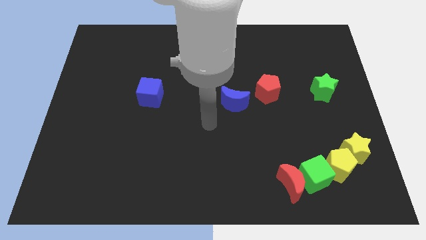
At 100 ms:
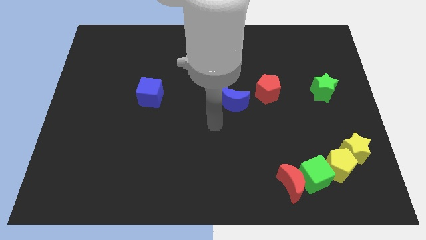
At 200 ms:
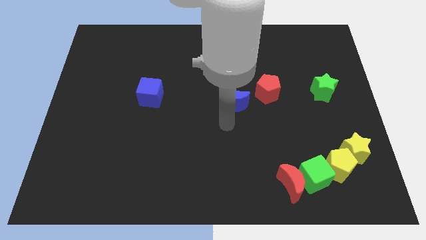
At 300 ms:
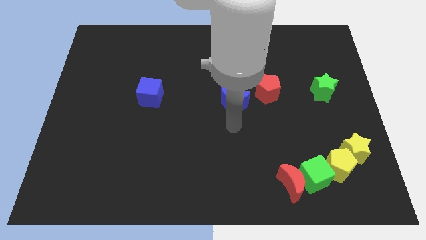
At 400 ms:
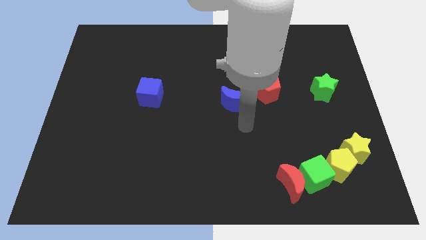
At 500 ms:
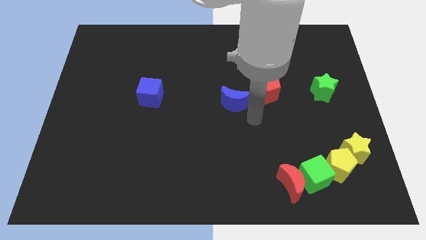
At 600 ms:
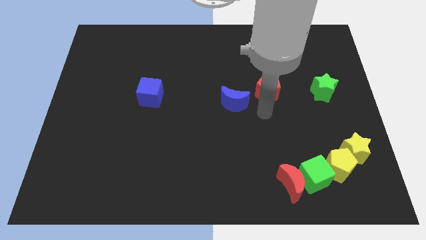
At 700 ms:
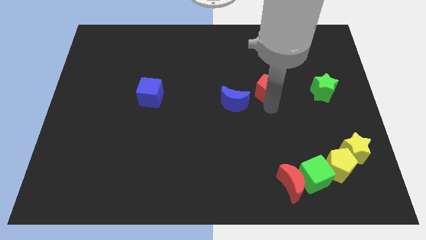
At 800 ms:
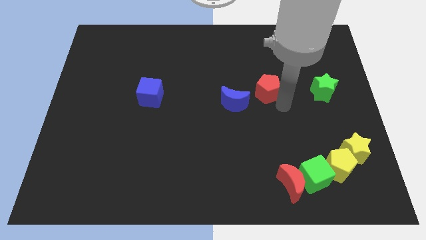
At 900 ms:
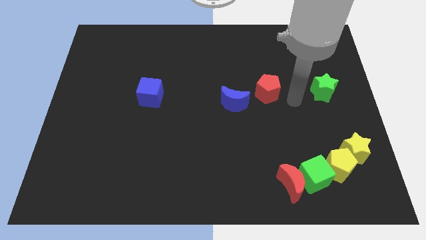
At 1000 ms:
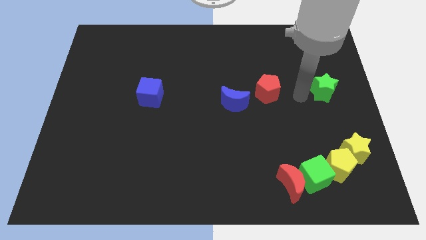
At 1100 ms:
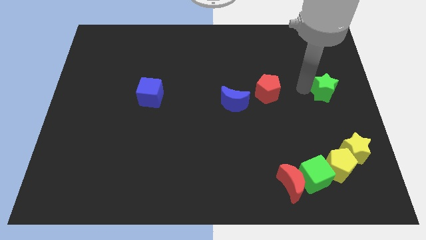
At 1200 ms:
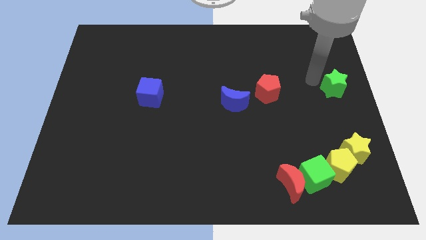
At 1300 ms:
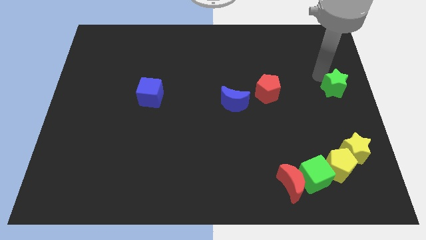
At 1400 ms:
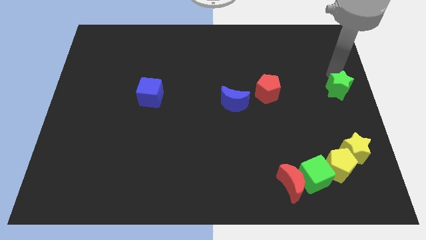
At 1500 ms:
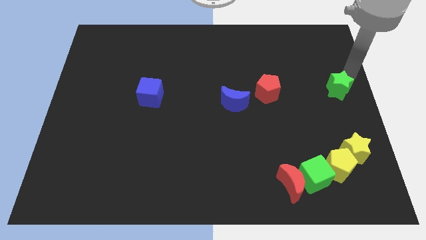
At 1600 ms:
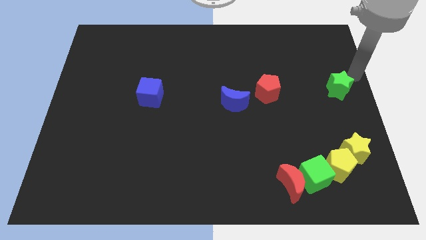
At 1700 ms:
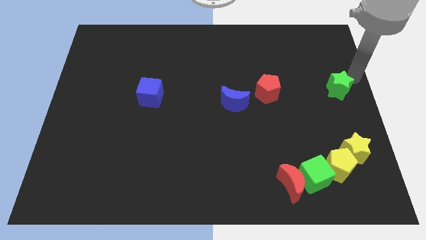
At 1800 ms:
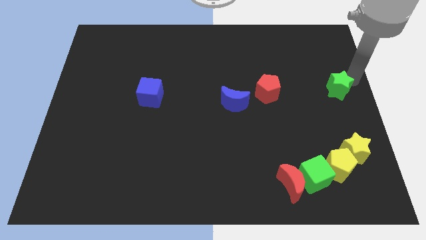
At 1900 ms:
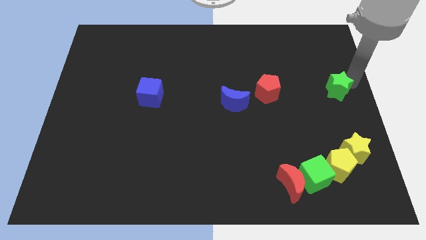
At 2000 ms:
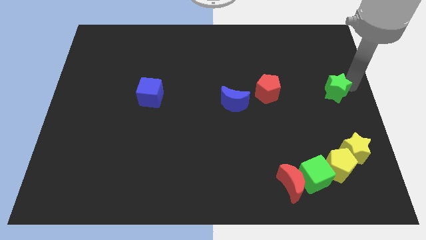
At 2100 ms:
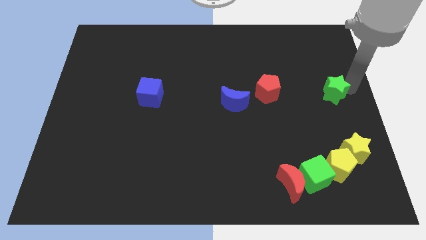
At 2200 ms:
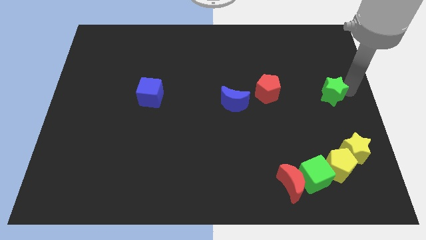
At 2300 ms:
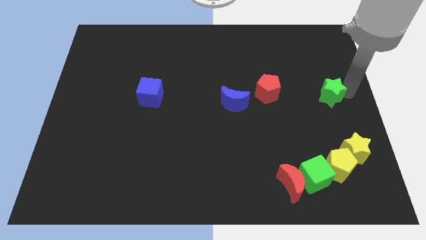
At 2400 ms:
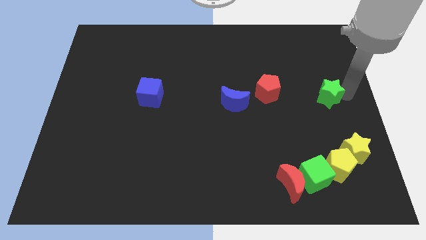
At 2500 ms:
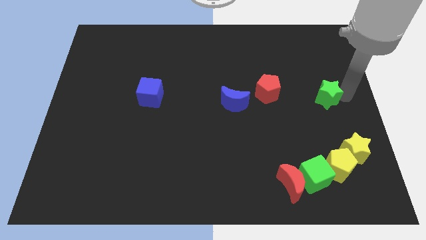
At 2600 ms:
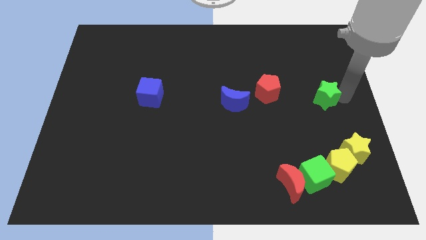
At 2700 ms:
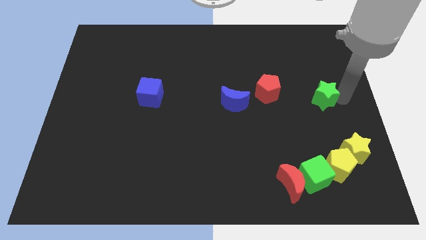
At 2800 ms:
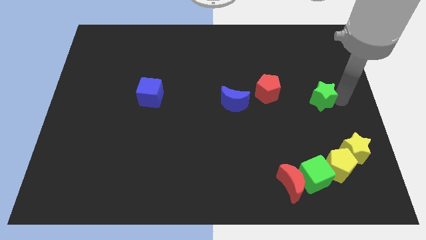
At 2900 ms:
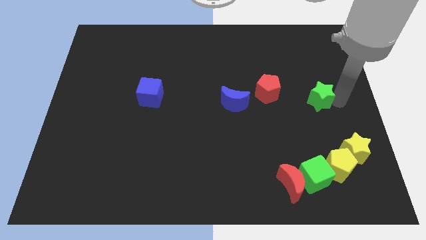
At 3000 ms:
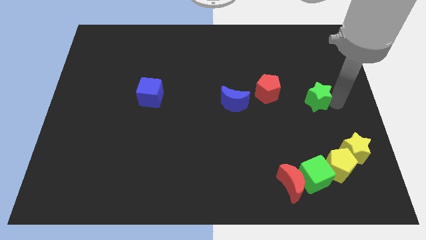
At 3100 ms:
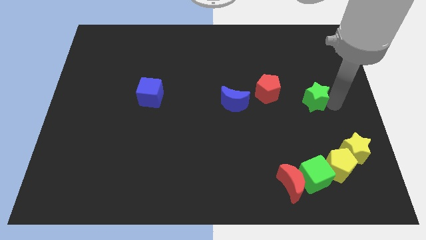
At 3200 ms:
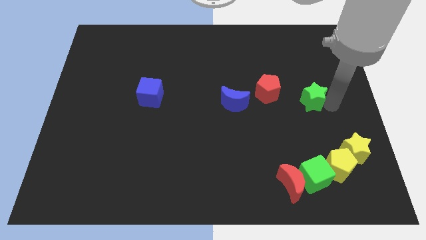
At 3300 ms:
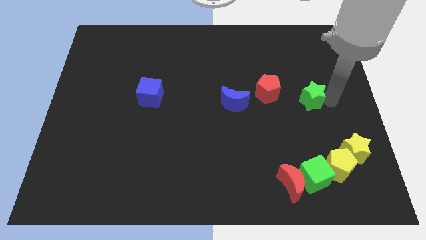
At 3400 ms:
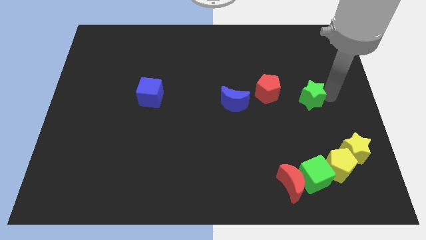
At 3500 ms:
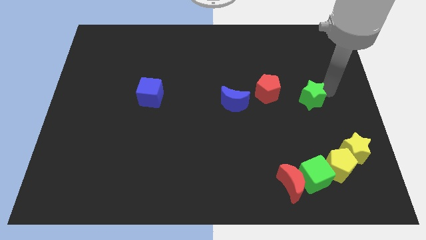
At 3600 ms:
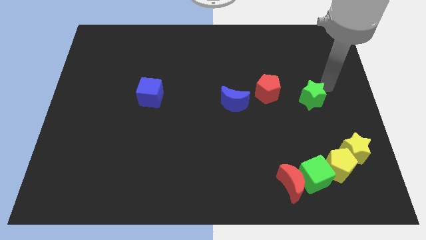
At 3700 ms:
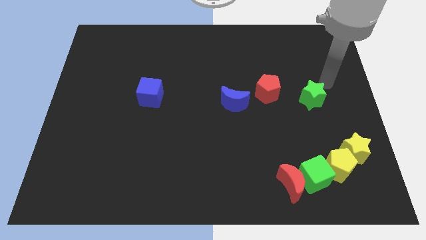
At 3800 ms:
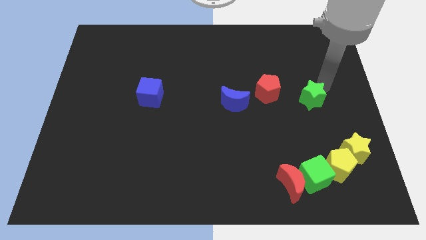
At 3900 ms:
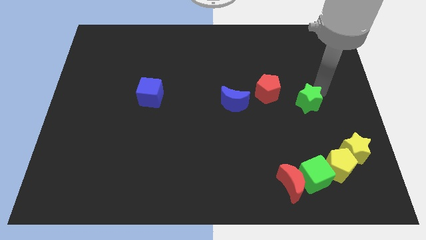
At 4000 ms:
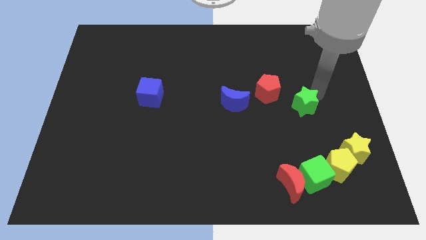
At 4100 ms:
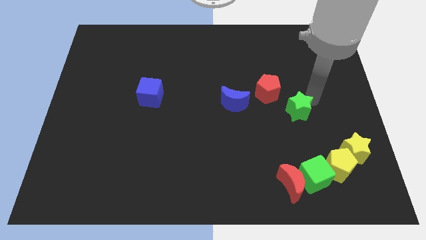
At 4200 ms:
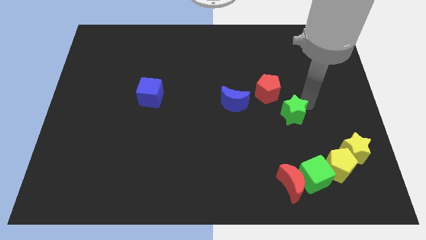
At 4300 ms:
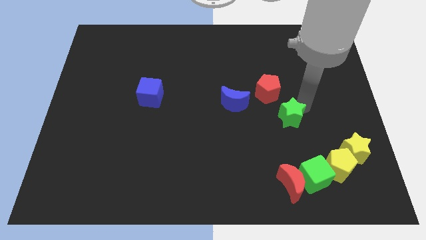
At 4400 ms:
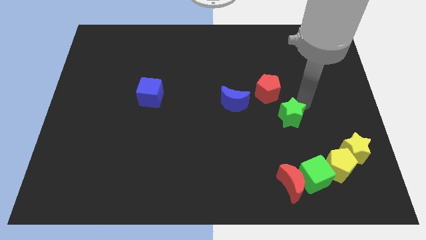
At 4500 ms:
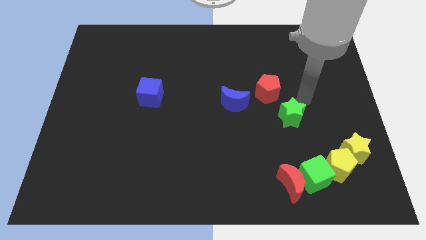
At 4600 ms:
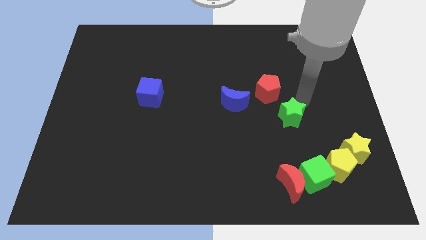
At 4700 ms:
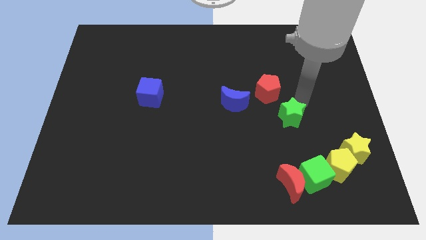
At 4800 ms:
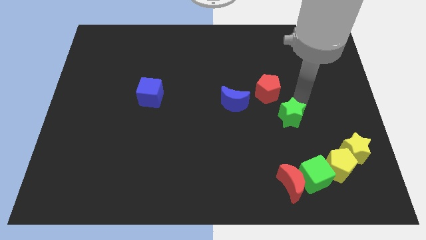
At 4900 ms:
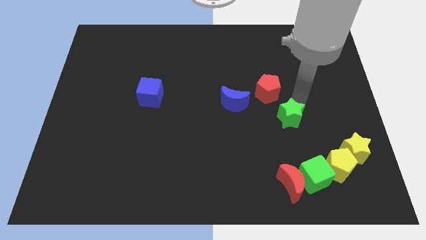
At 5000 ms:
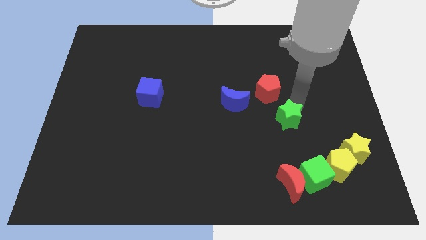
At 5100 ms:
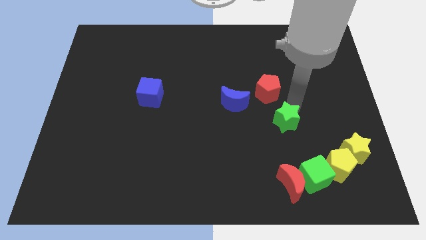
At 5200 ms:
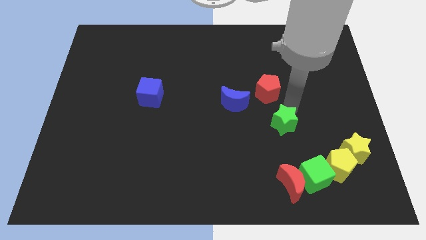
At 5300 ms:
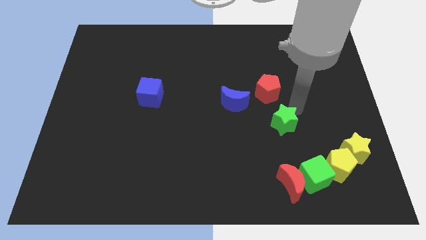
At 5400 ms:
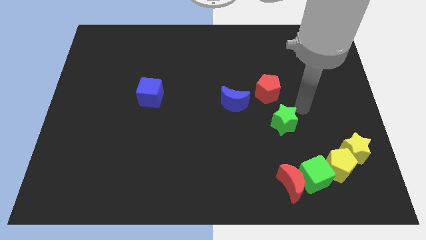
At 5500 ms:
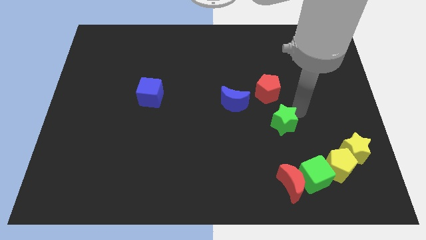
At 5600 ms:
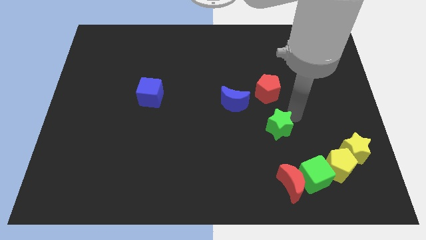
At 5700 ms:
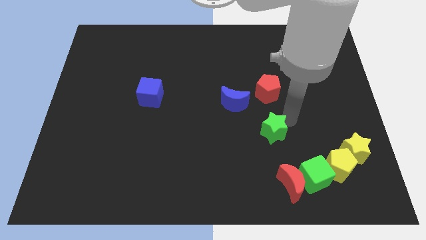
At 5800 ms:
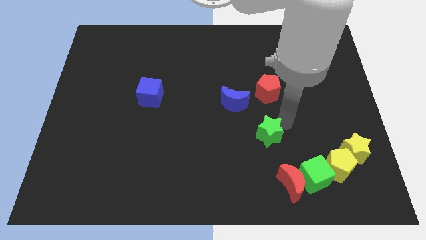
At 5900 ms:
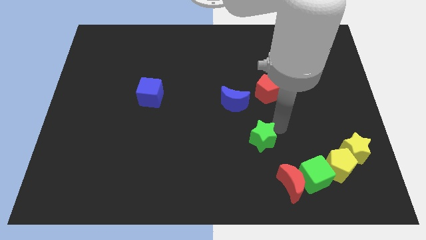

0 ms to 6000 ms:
push the green star downwards and to the left diagonally

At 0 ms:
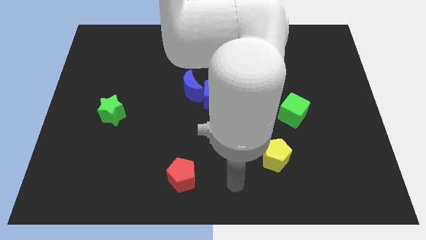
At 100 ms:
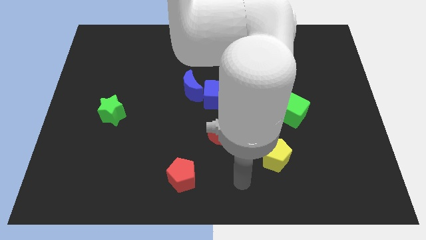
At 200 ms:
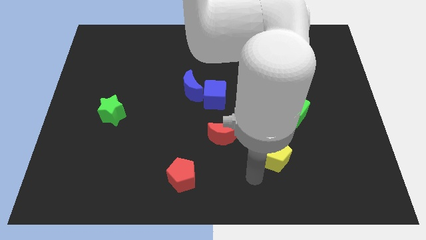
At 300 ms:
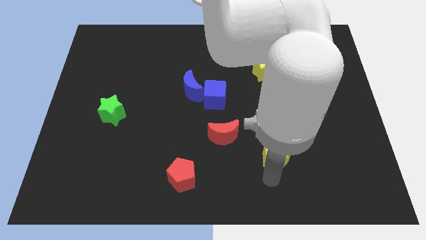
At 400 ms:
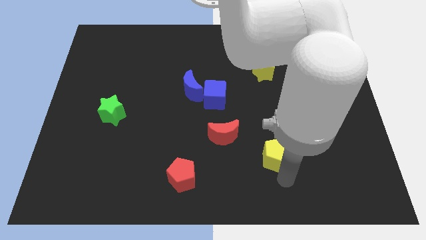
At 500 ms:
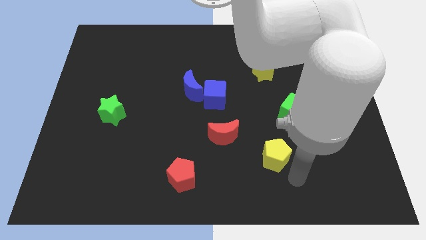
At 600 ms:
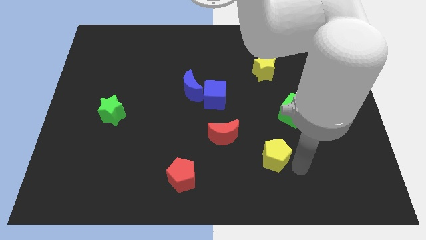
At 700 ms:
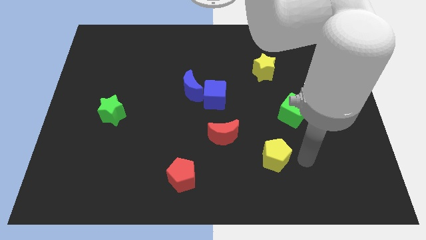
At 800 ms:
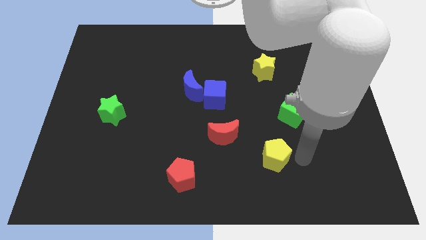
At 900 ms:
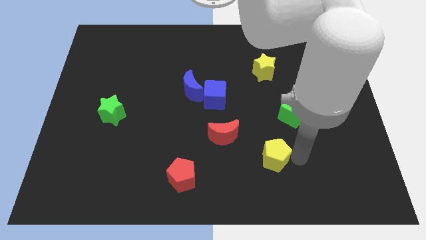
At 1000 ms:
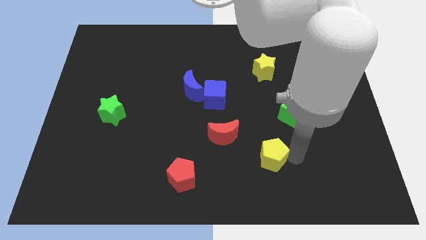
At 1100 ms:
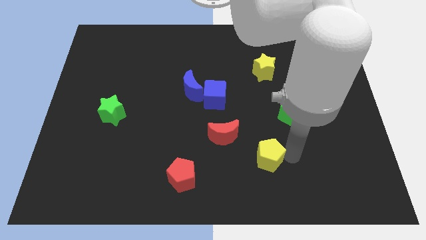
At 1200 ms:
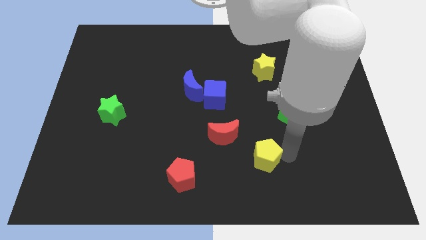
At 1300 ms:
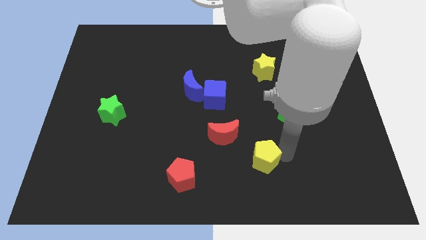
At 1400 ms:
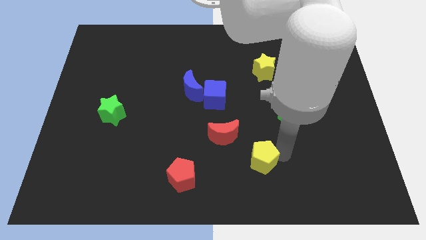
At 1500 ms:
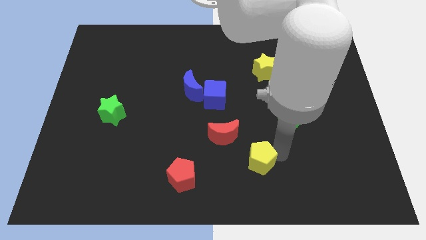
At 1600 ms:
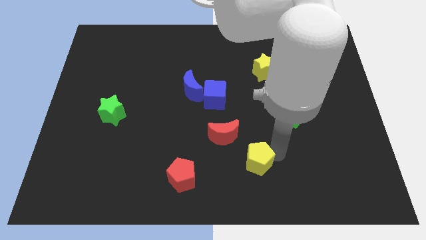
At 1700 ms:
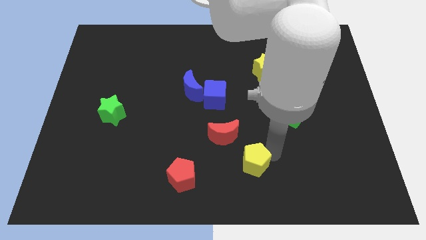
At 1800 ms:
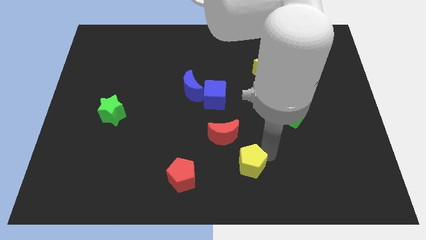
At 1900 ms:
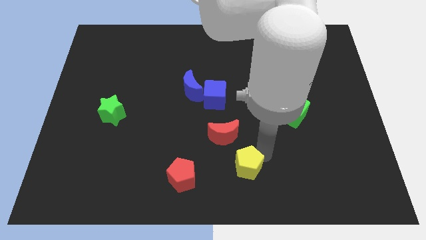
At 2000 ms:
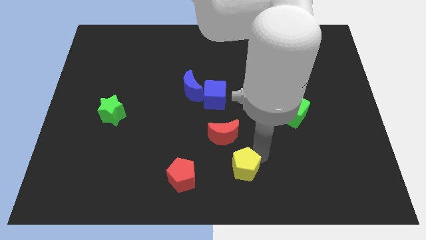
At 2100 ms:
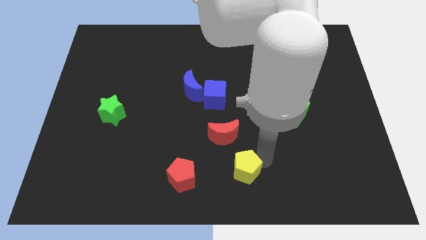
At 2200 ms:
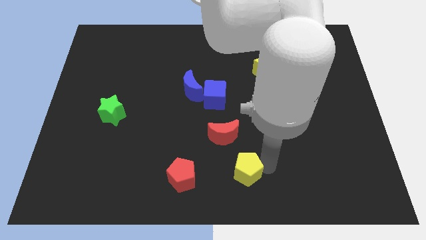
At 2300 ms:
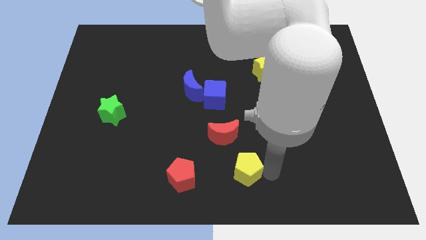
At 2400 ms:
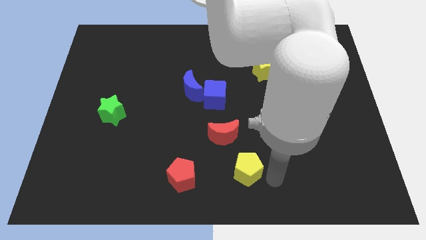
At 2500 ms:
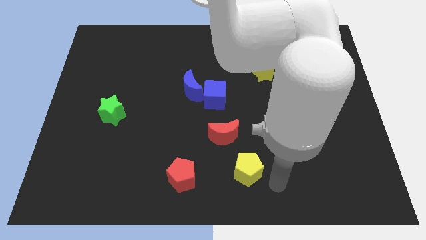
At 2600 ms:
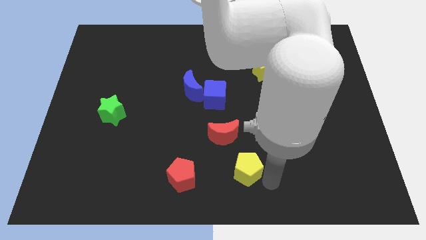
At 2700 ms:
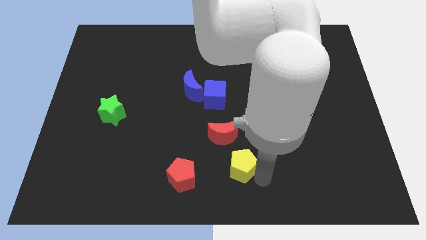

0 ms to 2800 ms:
slide the yellow pentagon to the left a bit
